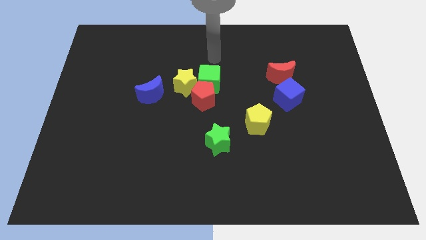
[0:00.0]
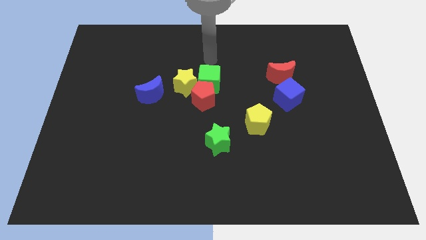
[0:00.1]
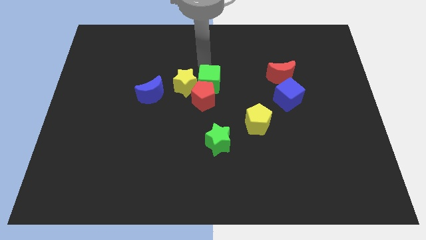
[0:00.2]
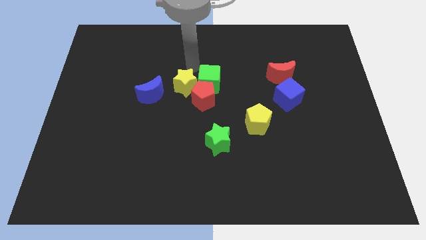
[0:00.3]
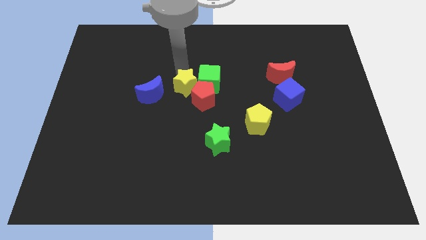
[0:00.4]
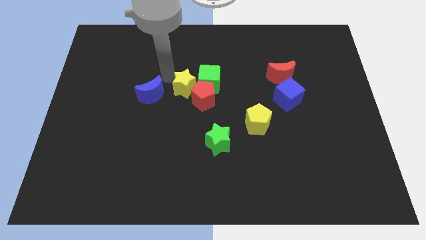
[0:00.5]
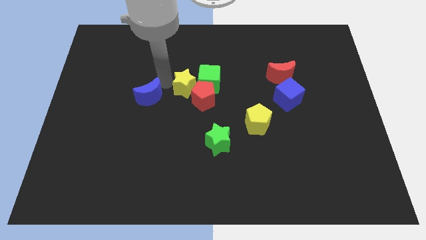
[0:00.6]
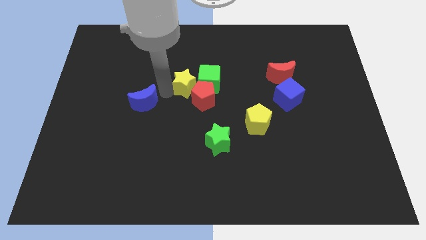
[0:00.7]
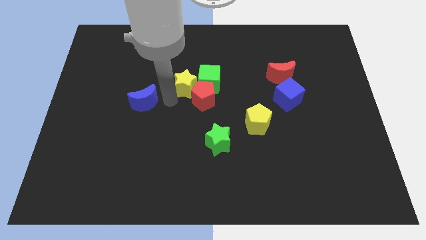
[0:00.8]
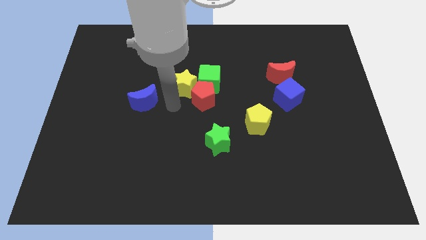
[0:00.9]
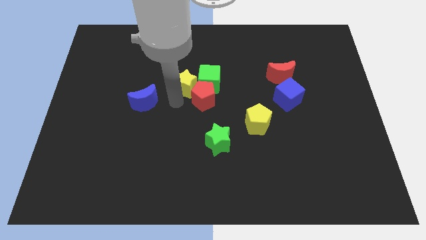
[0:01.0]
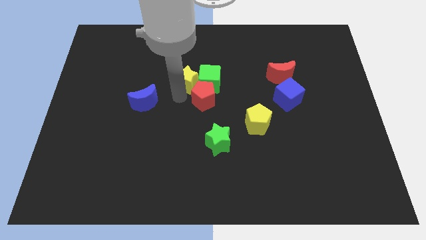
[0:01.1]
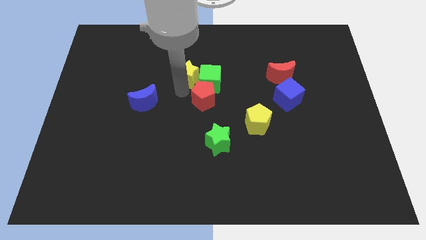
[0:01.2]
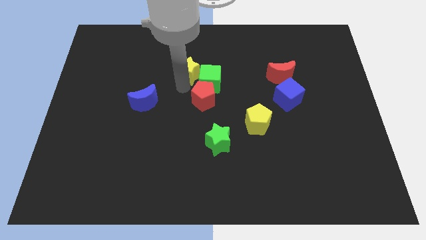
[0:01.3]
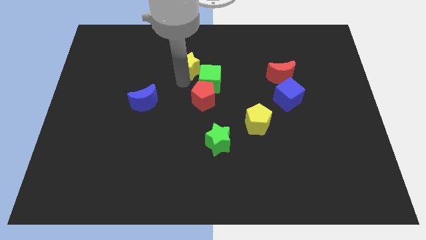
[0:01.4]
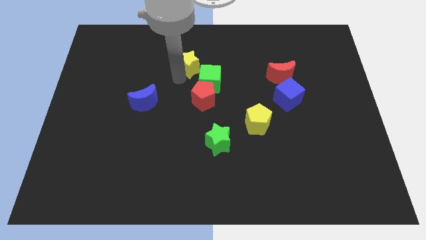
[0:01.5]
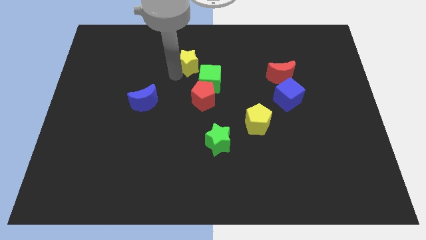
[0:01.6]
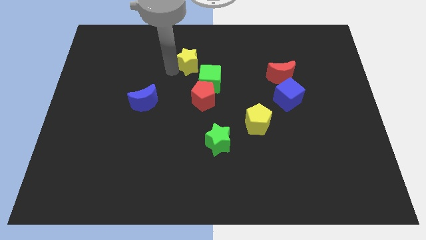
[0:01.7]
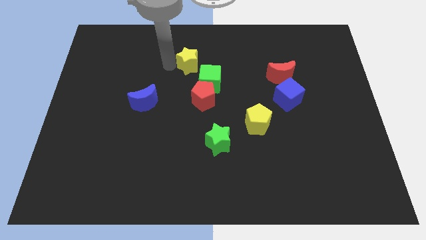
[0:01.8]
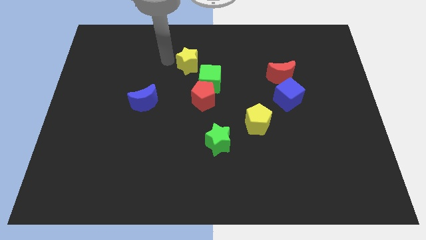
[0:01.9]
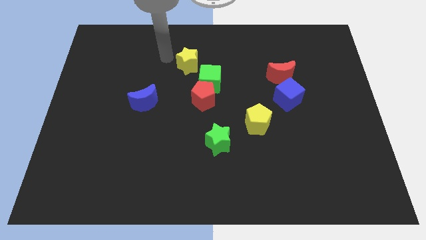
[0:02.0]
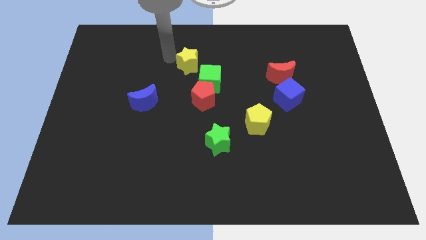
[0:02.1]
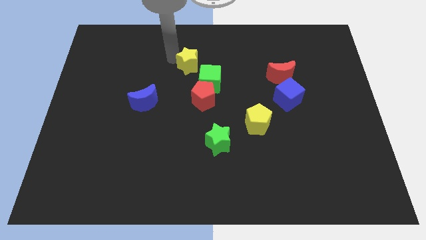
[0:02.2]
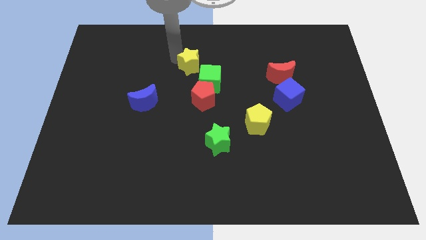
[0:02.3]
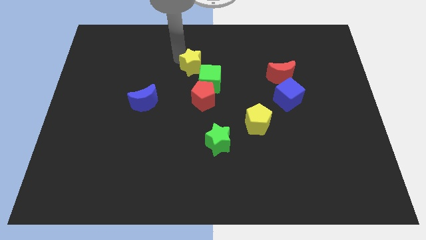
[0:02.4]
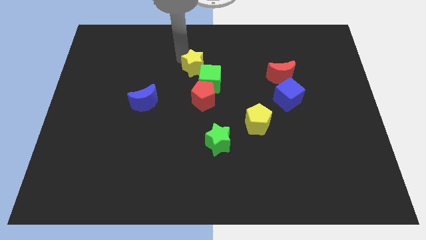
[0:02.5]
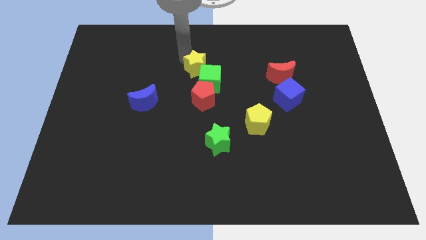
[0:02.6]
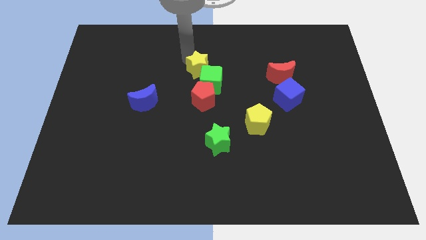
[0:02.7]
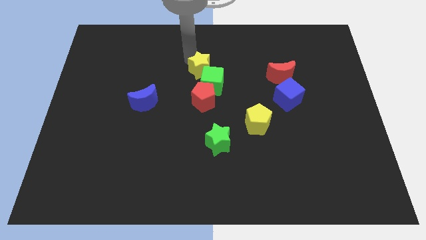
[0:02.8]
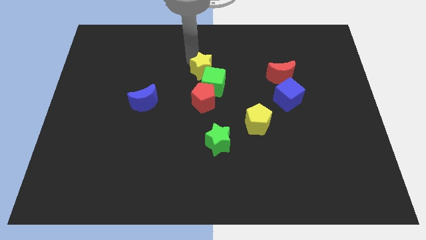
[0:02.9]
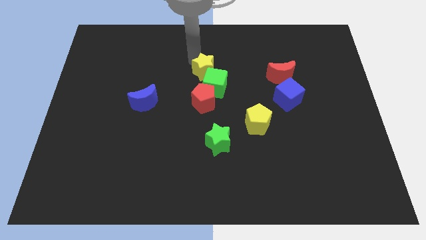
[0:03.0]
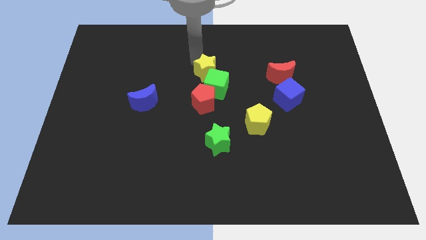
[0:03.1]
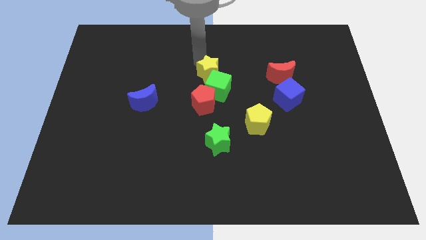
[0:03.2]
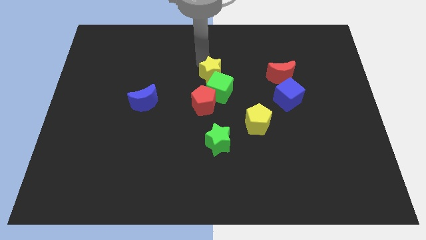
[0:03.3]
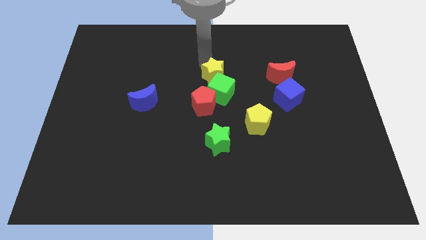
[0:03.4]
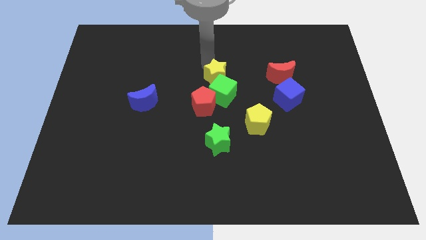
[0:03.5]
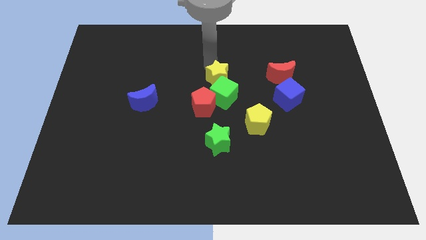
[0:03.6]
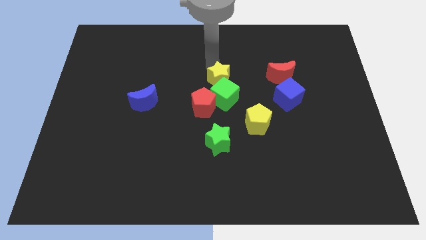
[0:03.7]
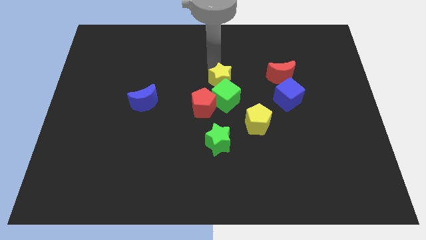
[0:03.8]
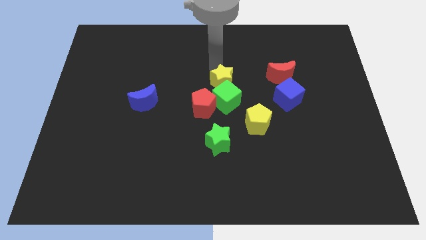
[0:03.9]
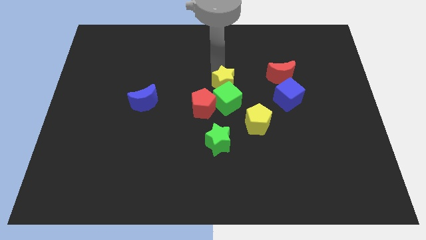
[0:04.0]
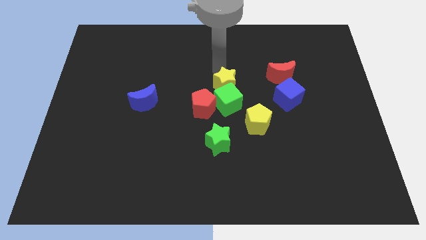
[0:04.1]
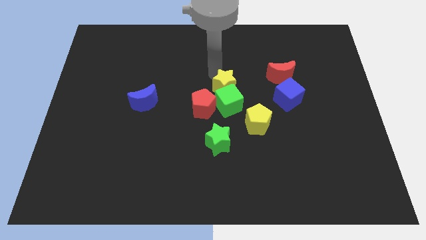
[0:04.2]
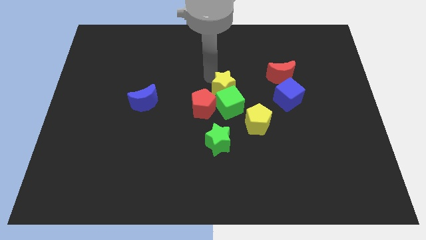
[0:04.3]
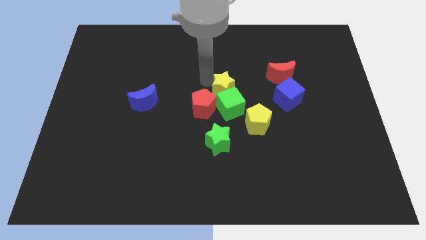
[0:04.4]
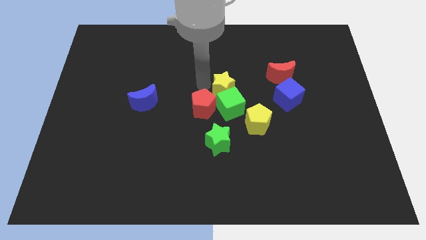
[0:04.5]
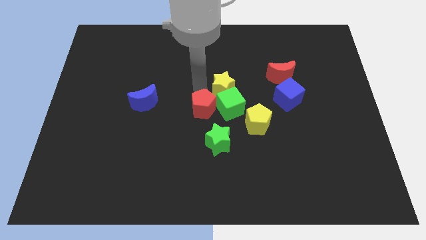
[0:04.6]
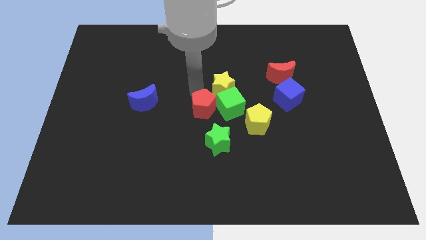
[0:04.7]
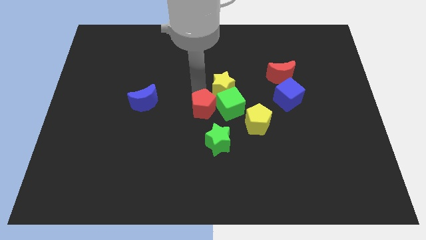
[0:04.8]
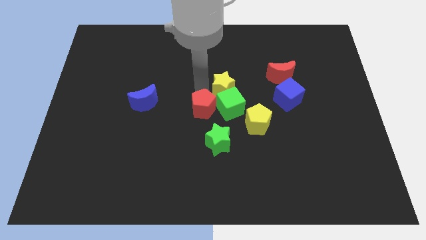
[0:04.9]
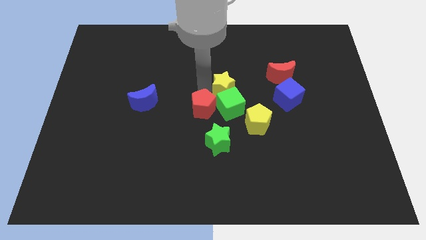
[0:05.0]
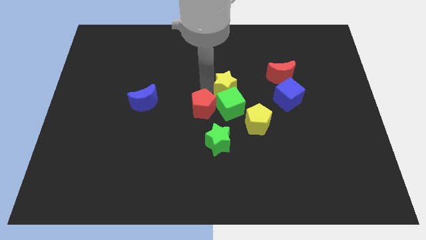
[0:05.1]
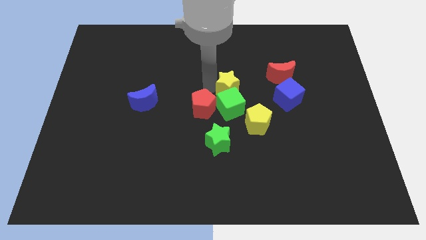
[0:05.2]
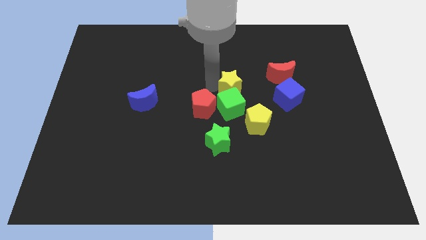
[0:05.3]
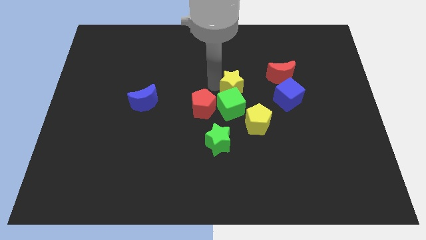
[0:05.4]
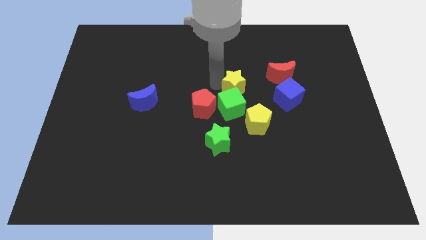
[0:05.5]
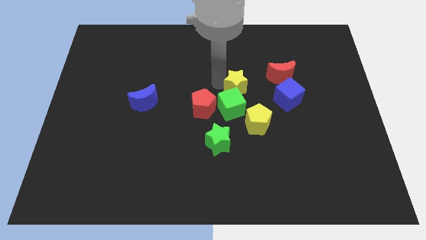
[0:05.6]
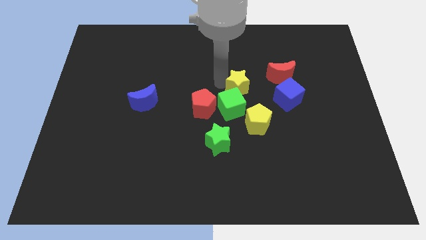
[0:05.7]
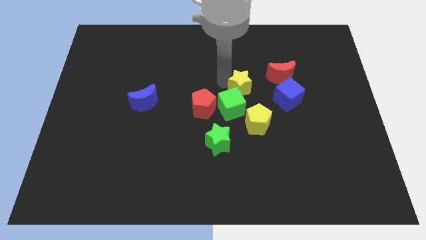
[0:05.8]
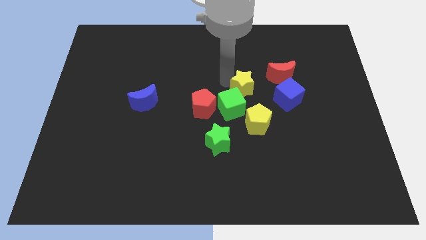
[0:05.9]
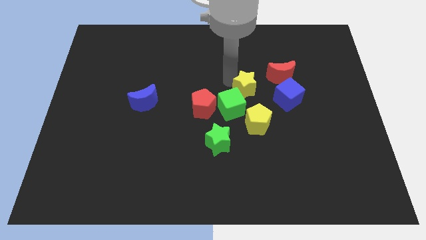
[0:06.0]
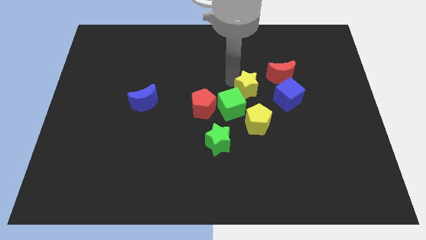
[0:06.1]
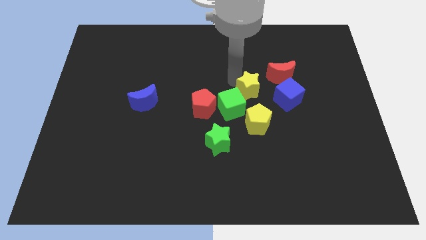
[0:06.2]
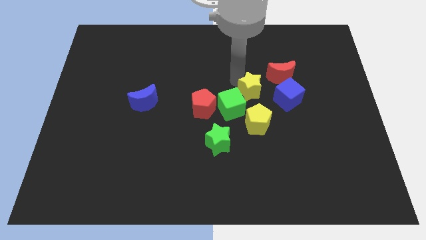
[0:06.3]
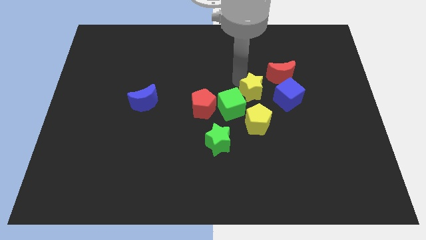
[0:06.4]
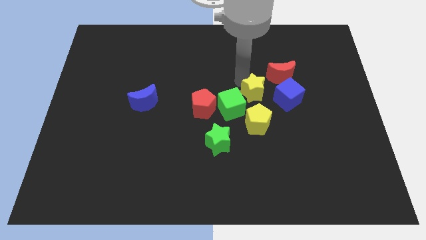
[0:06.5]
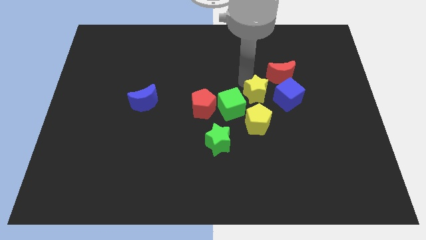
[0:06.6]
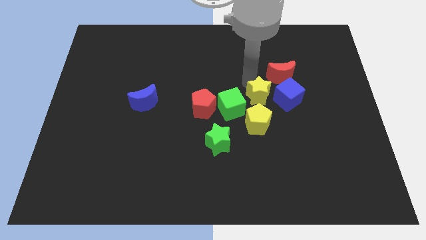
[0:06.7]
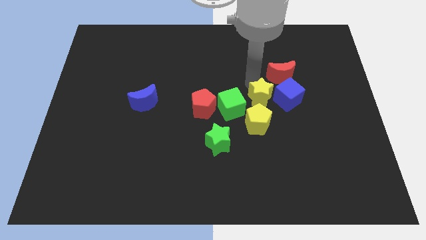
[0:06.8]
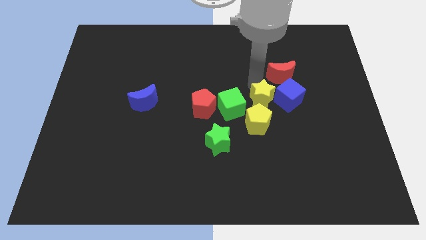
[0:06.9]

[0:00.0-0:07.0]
move the yellow star next to the blue cube
